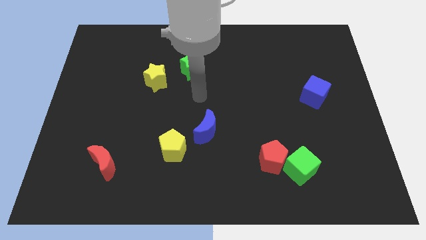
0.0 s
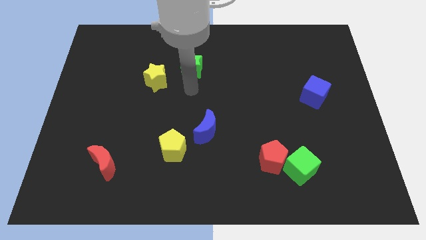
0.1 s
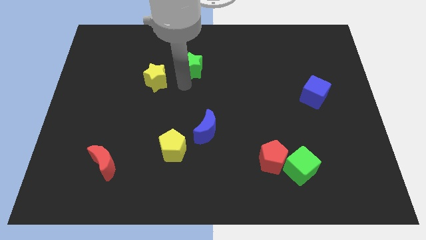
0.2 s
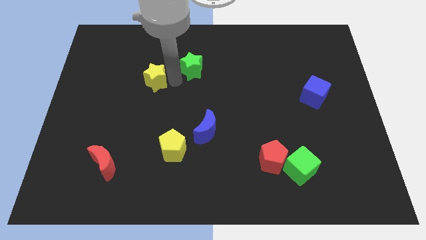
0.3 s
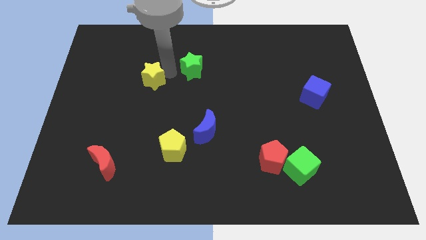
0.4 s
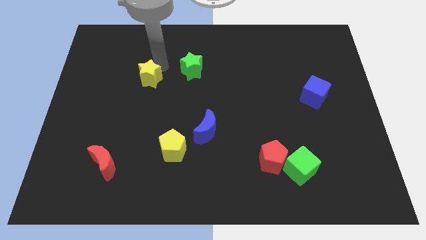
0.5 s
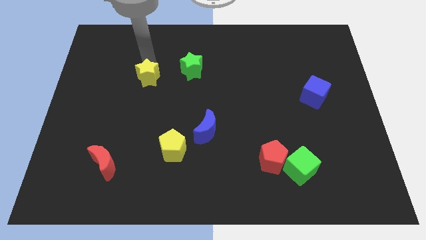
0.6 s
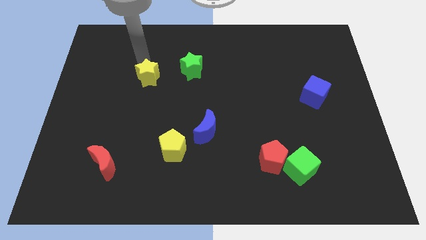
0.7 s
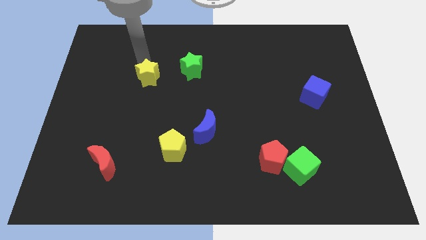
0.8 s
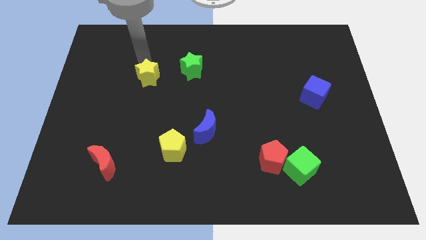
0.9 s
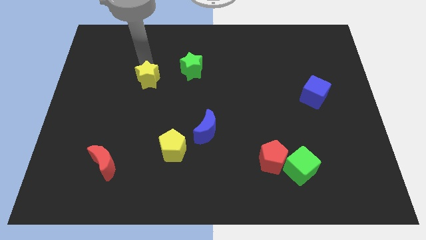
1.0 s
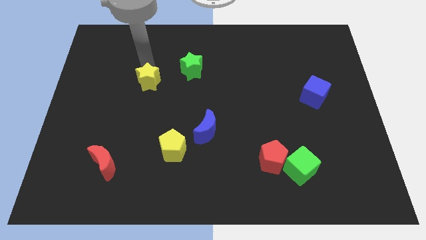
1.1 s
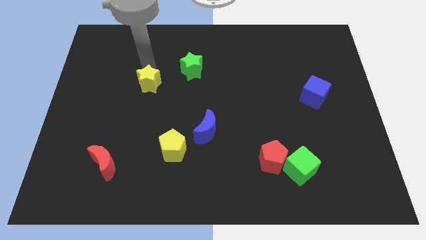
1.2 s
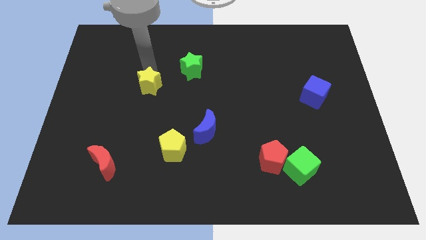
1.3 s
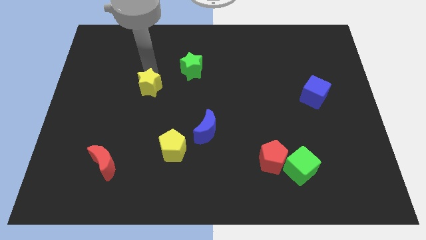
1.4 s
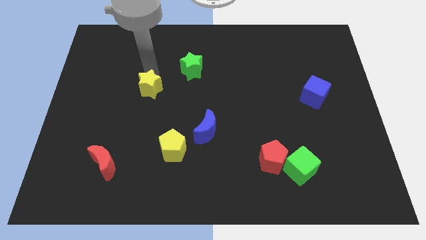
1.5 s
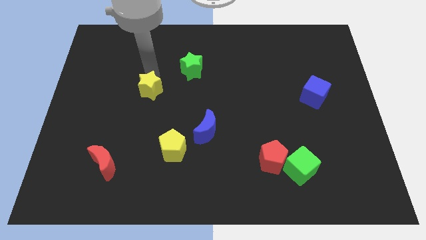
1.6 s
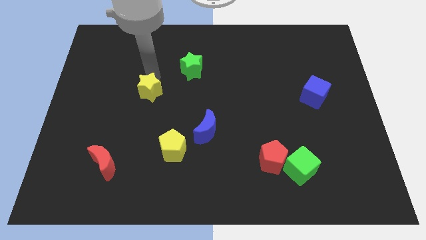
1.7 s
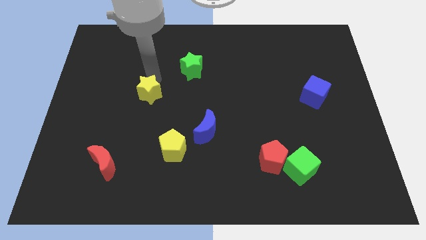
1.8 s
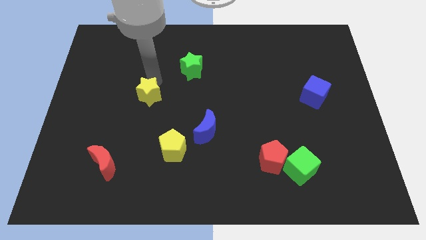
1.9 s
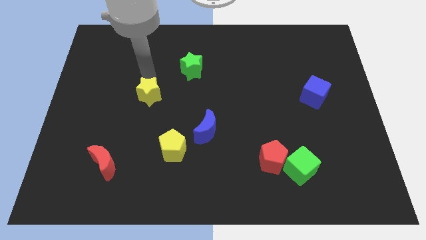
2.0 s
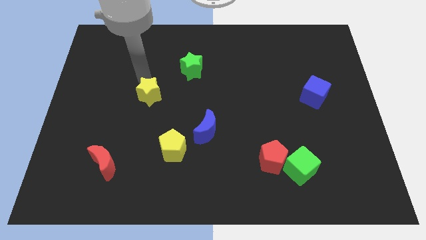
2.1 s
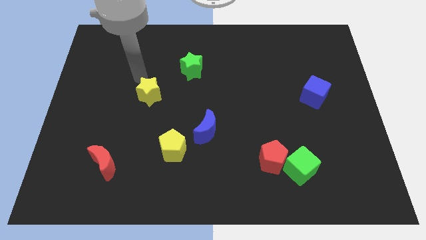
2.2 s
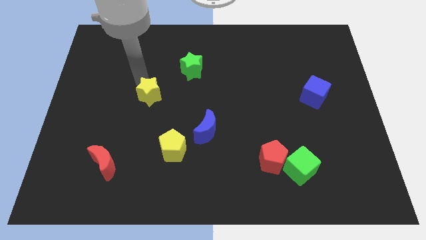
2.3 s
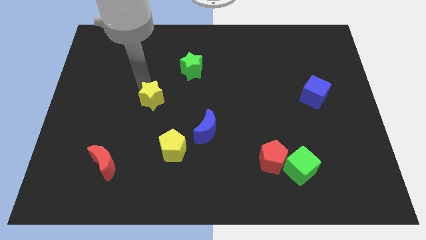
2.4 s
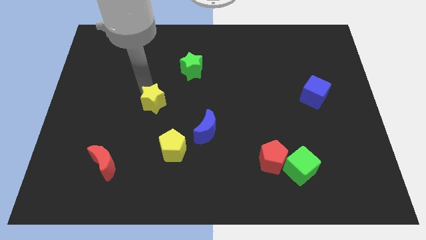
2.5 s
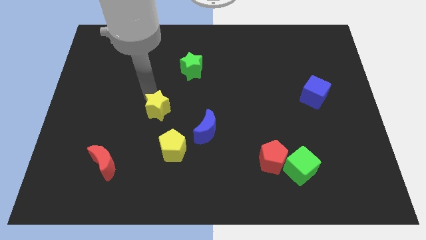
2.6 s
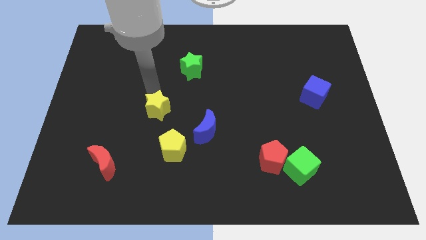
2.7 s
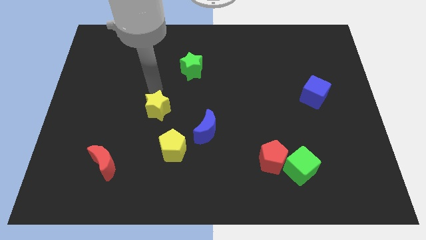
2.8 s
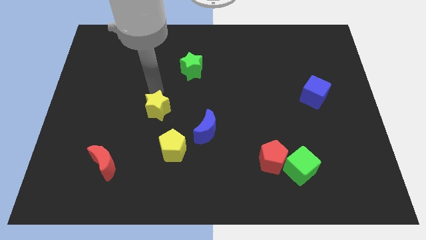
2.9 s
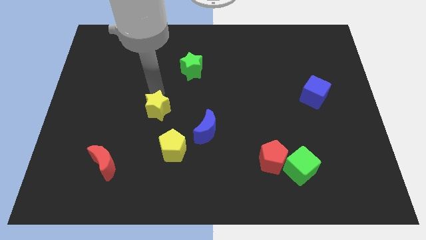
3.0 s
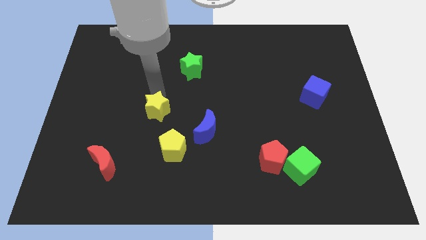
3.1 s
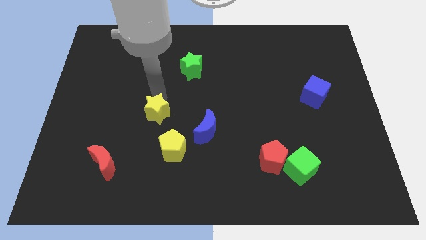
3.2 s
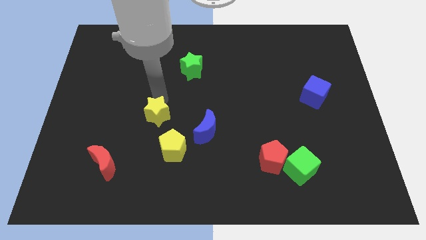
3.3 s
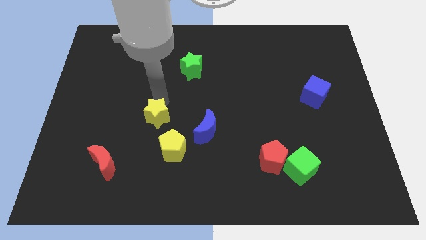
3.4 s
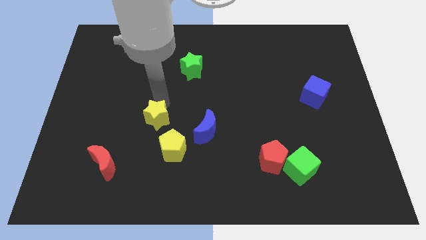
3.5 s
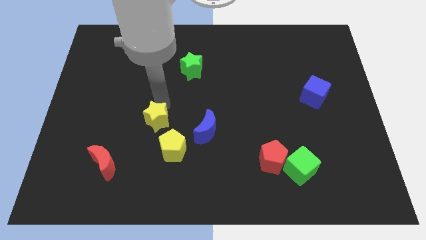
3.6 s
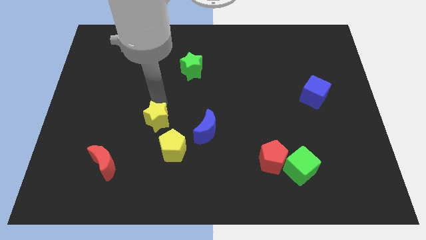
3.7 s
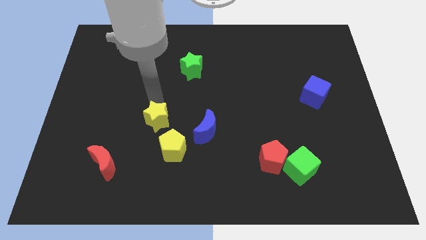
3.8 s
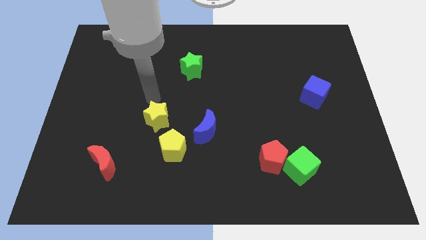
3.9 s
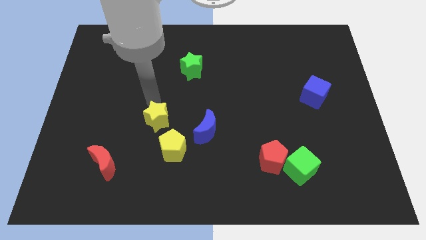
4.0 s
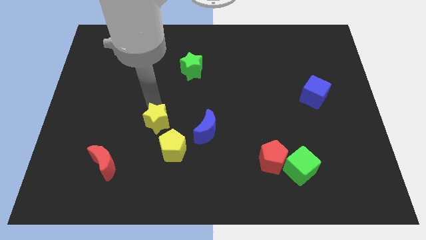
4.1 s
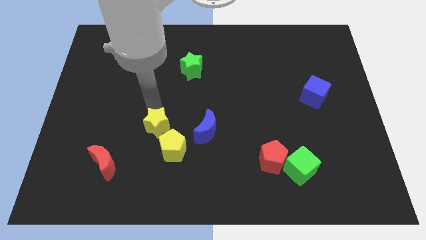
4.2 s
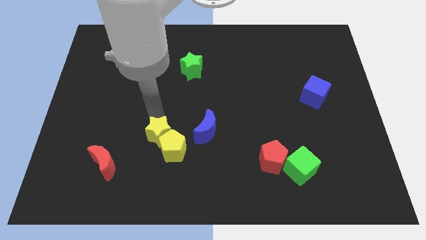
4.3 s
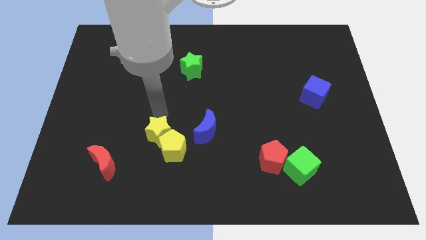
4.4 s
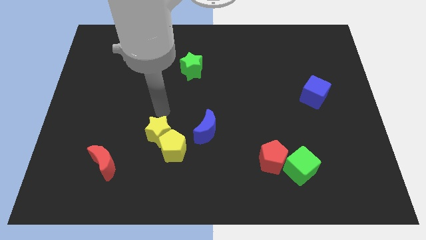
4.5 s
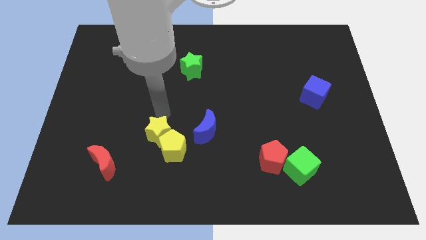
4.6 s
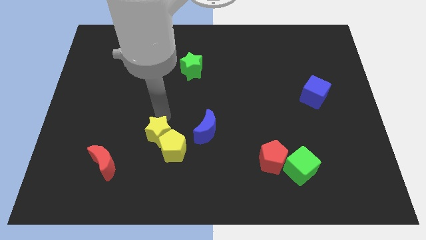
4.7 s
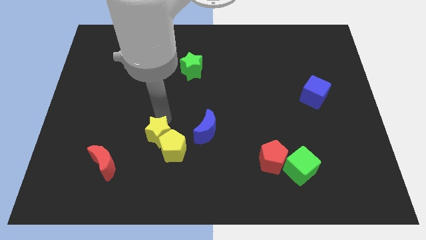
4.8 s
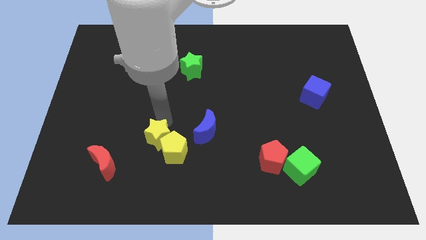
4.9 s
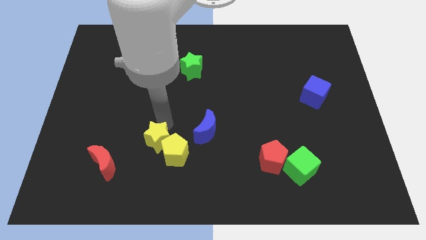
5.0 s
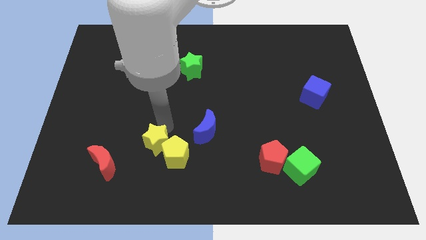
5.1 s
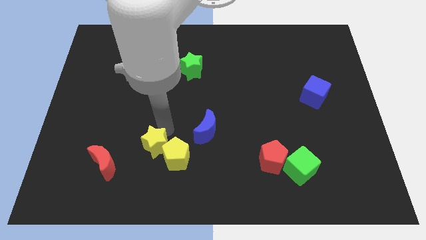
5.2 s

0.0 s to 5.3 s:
slide the yellow star to the right side of the red moon

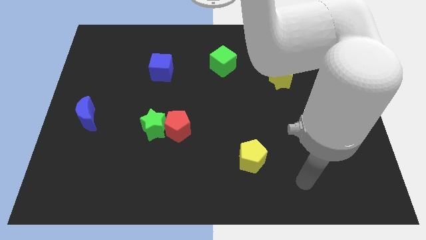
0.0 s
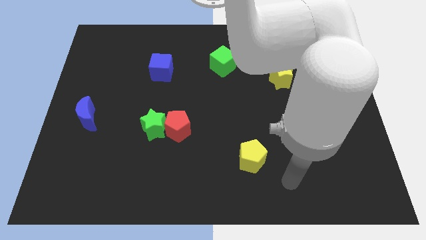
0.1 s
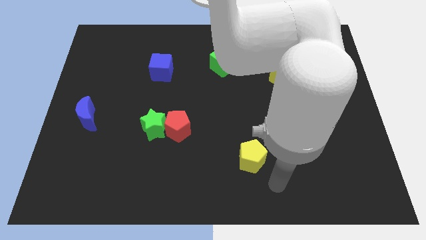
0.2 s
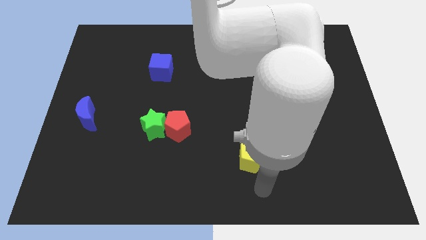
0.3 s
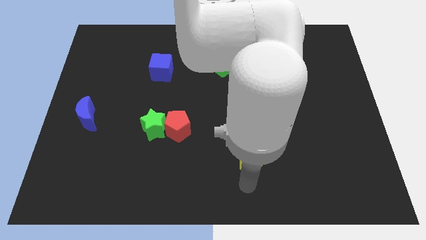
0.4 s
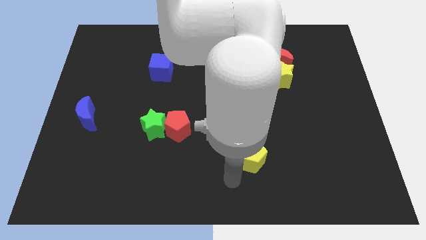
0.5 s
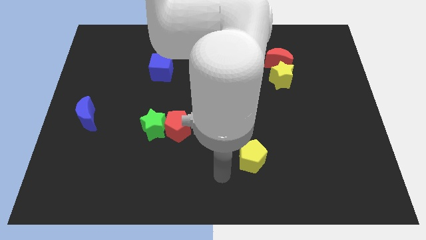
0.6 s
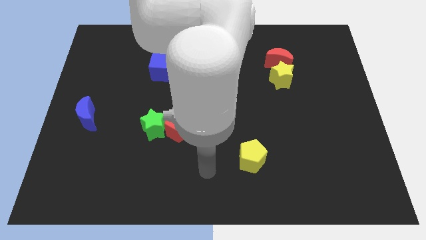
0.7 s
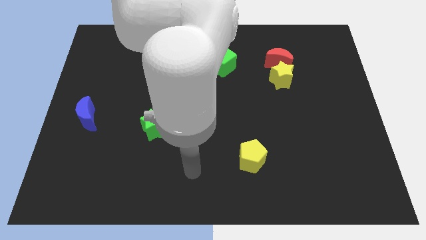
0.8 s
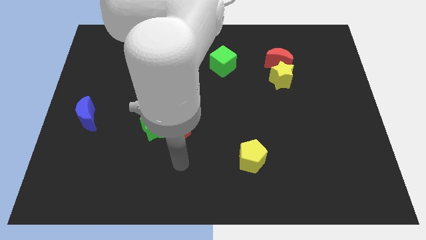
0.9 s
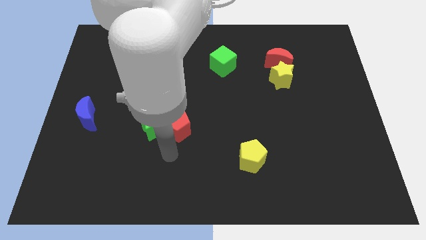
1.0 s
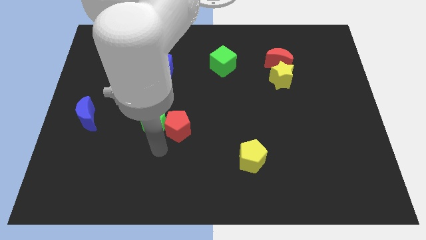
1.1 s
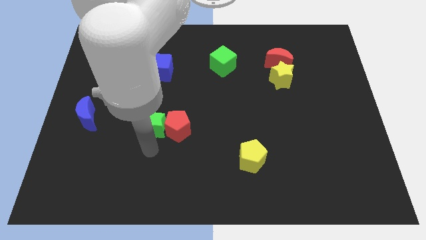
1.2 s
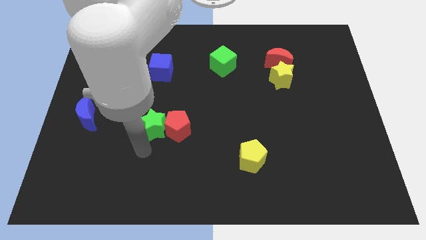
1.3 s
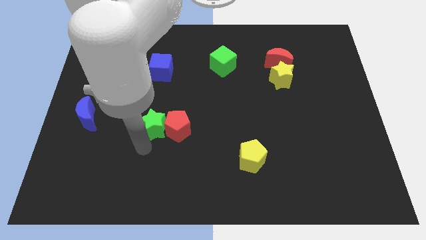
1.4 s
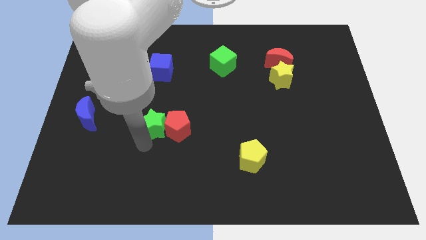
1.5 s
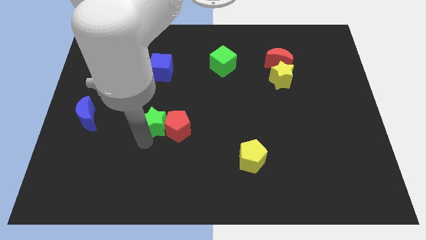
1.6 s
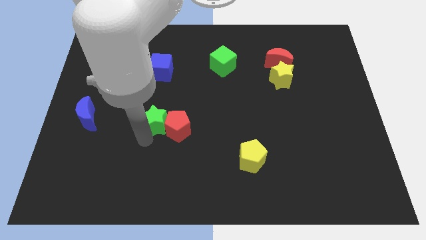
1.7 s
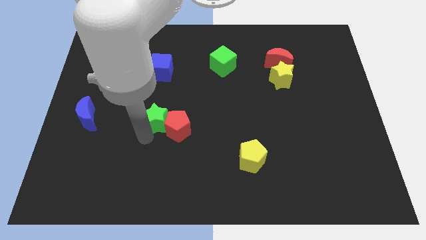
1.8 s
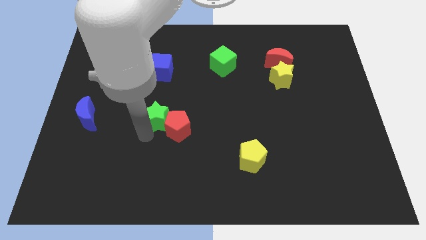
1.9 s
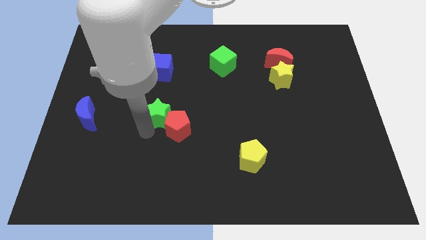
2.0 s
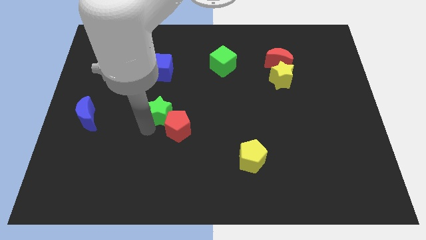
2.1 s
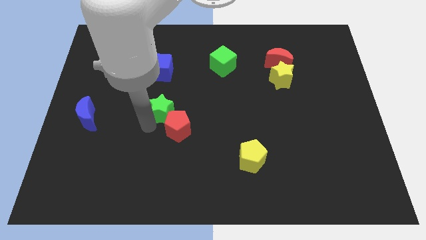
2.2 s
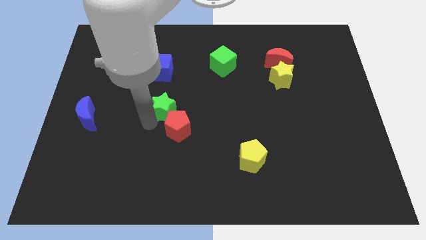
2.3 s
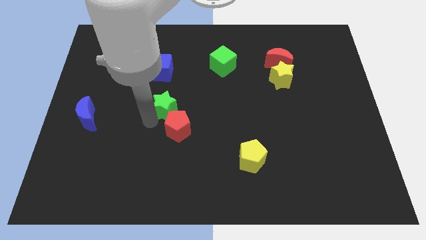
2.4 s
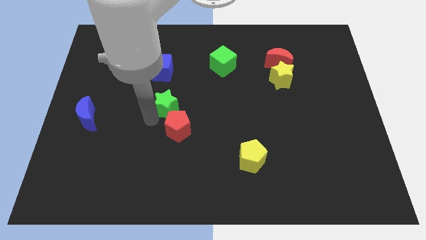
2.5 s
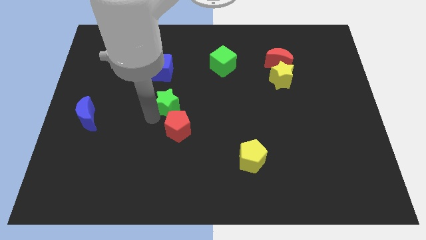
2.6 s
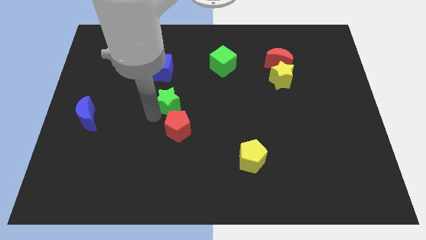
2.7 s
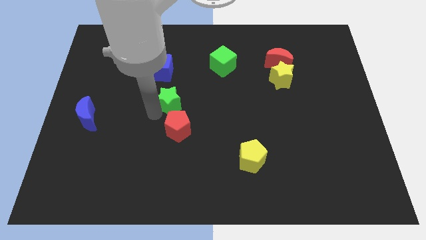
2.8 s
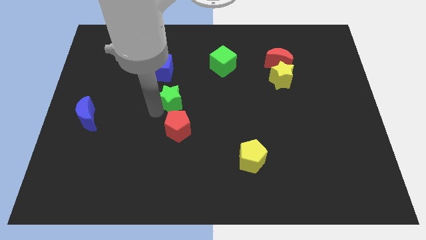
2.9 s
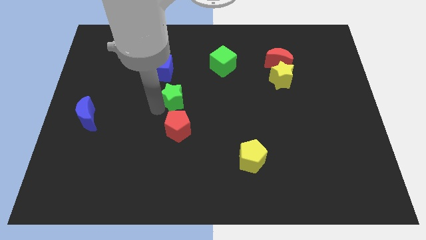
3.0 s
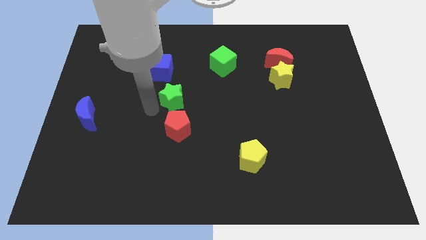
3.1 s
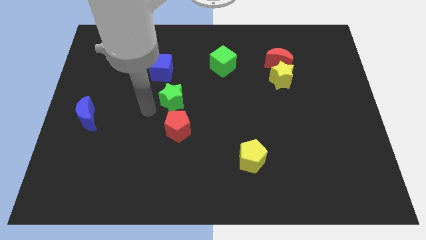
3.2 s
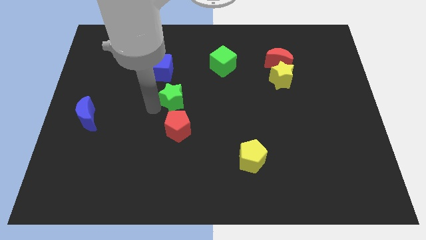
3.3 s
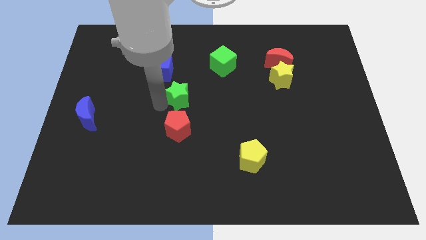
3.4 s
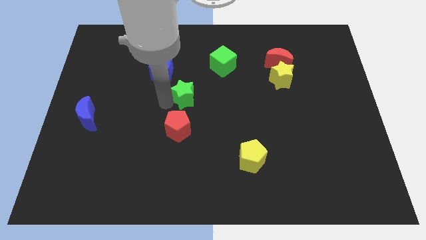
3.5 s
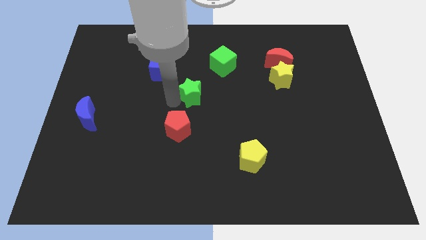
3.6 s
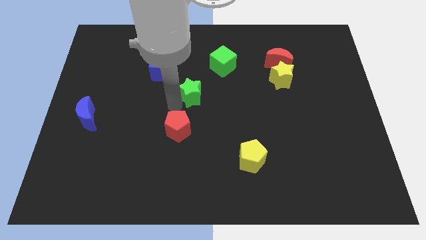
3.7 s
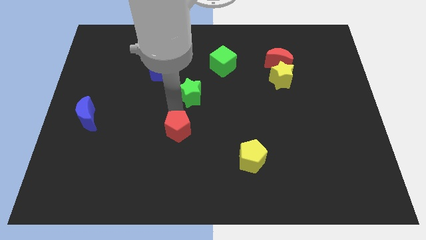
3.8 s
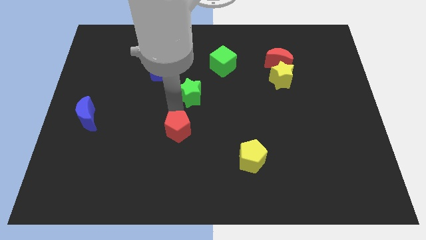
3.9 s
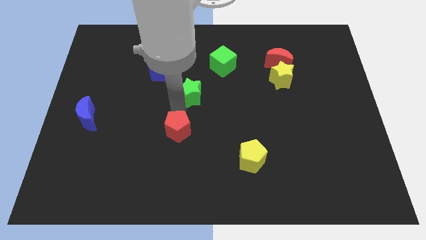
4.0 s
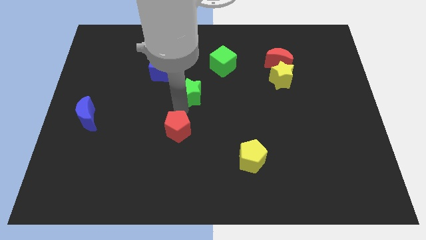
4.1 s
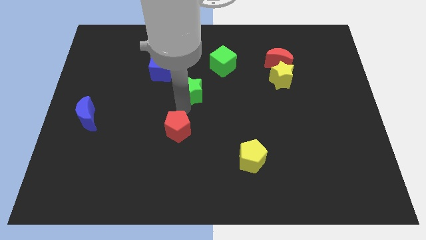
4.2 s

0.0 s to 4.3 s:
slide the green star to the bottom left of the green cube
